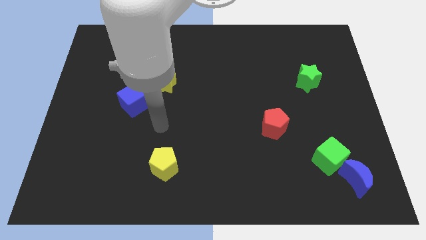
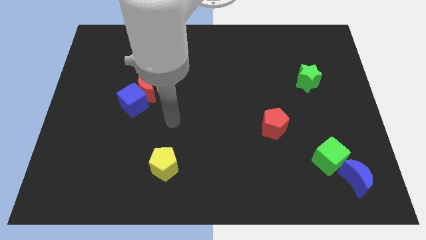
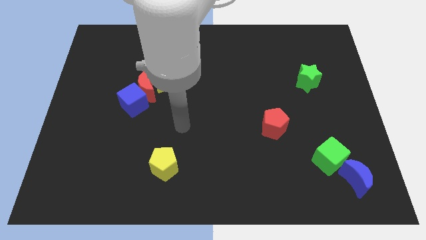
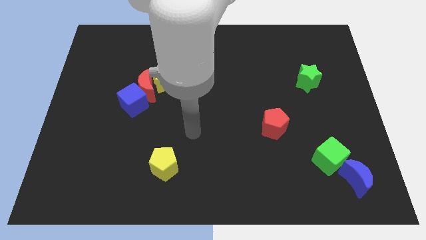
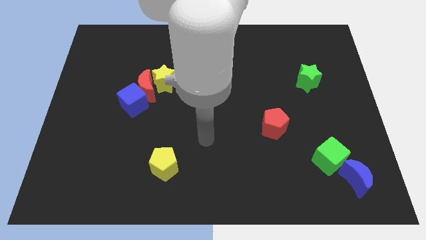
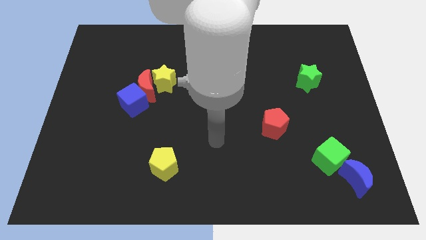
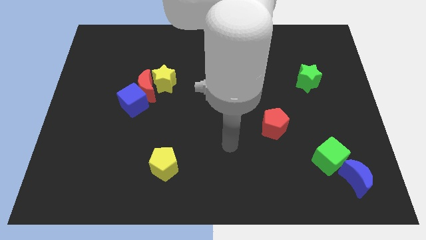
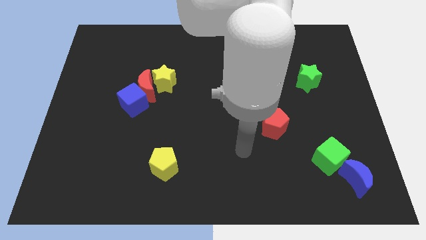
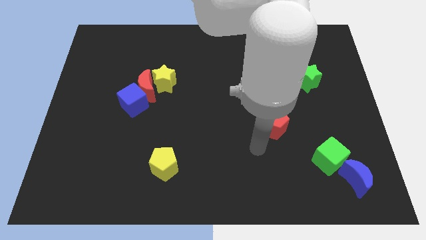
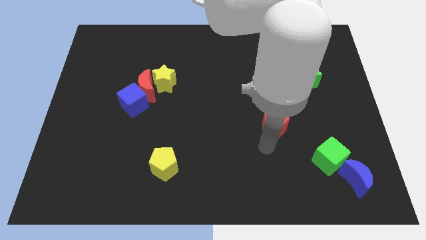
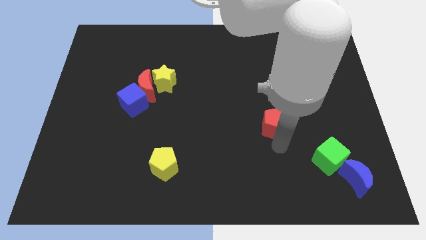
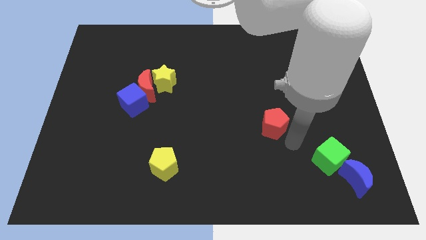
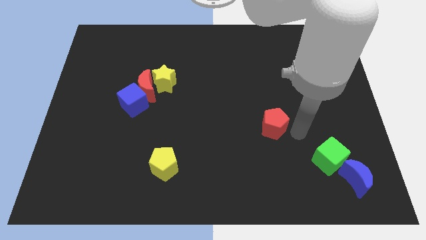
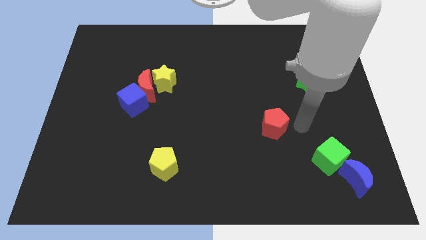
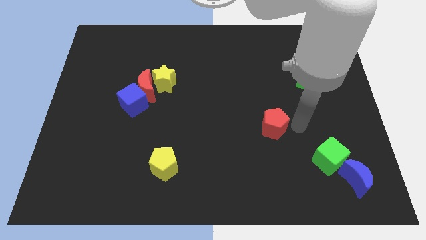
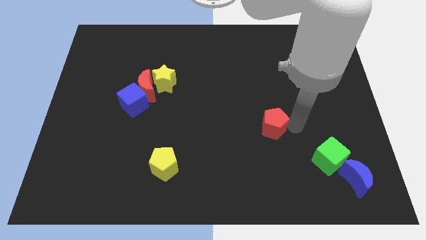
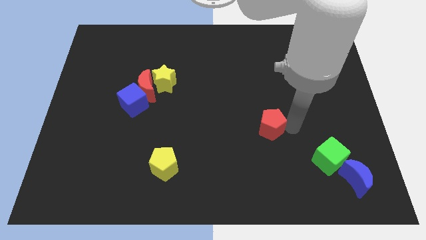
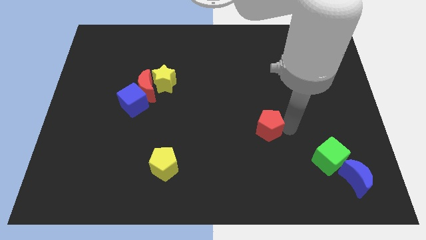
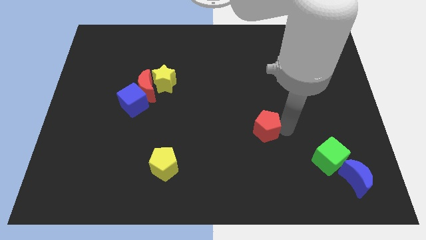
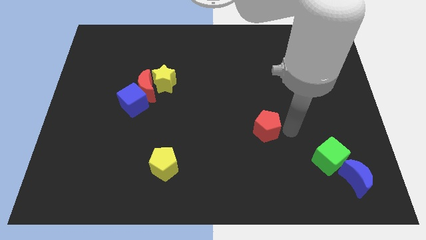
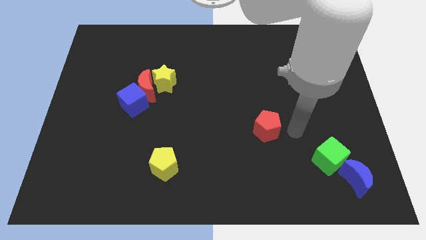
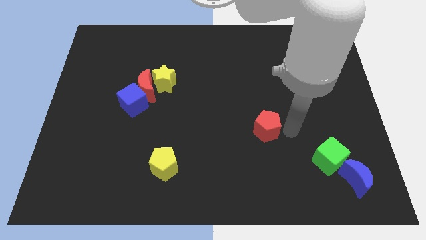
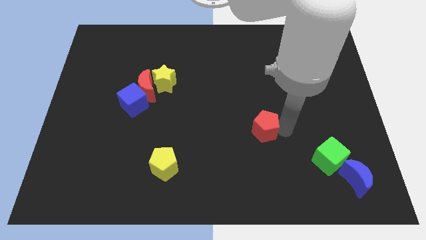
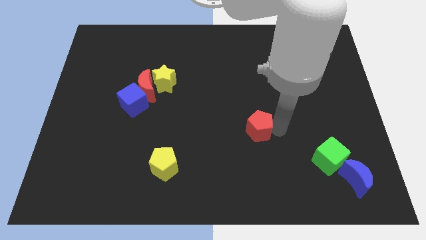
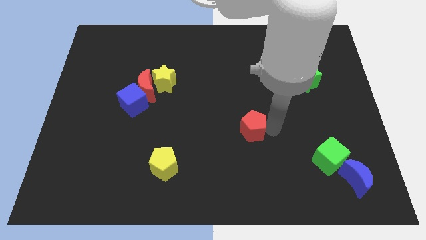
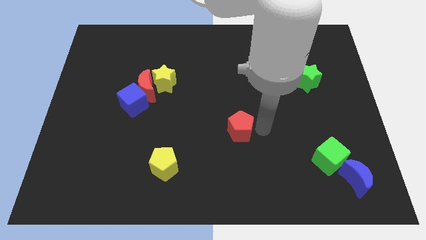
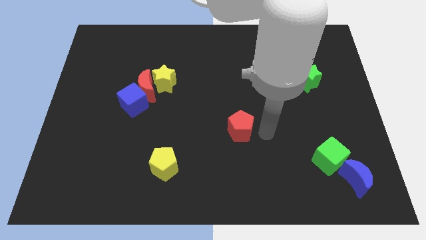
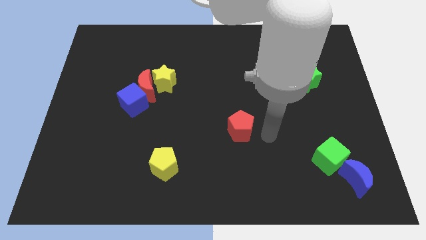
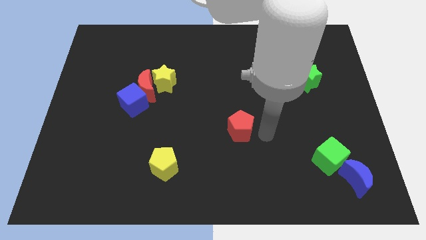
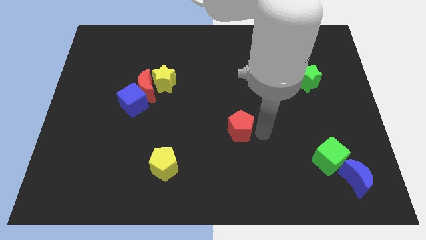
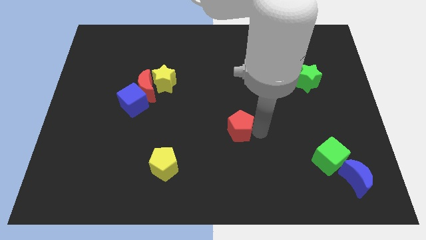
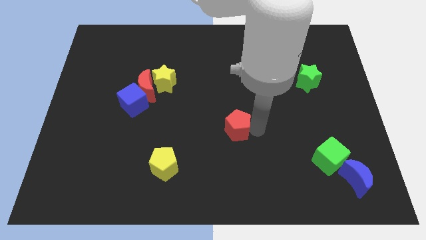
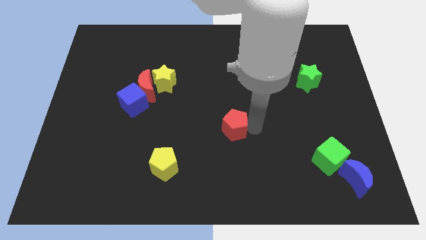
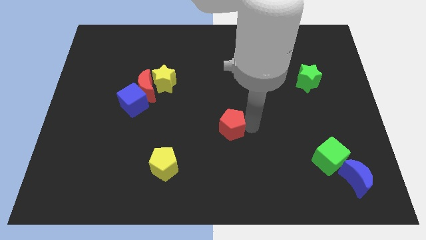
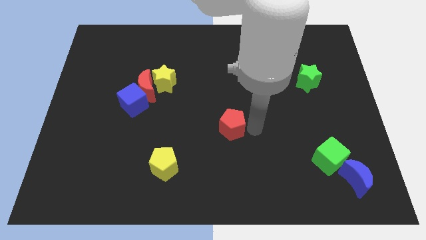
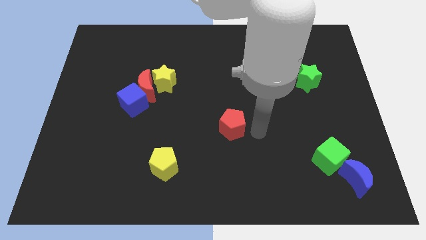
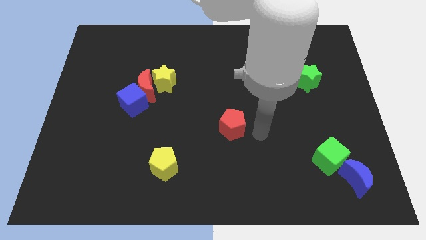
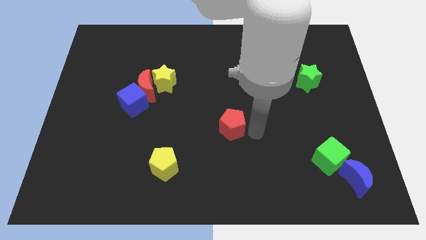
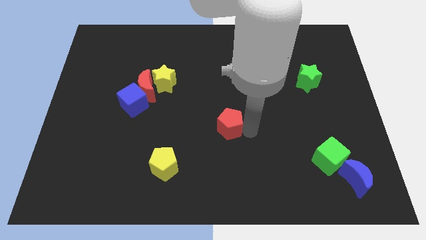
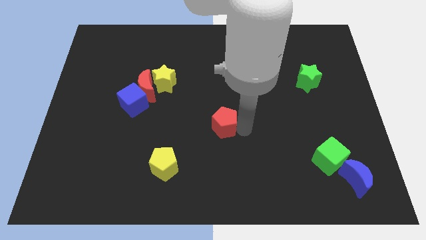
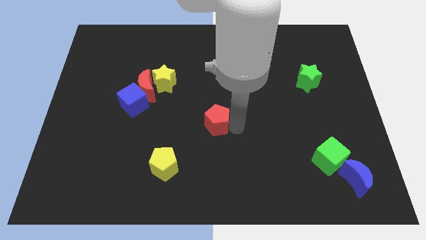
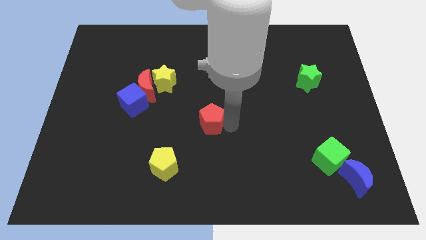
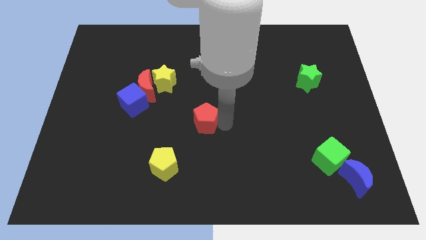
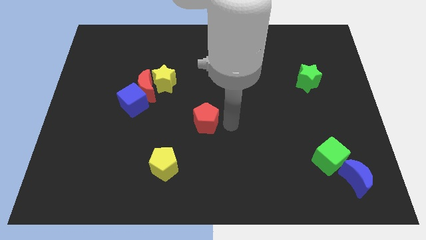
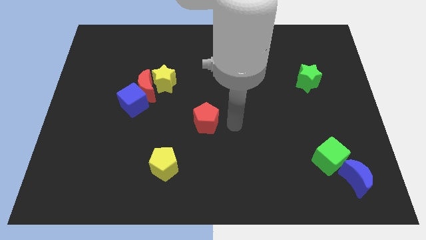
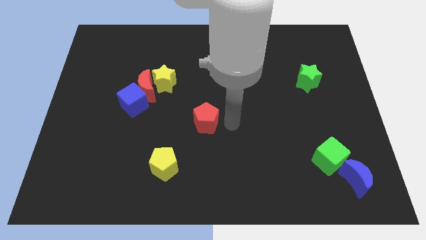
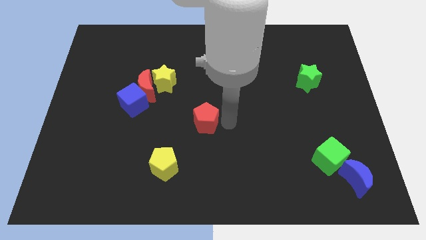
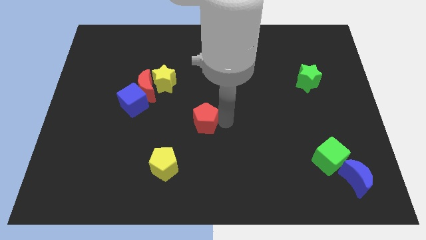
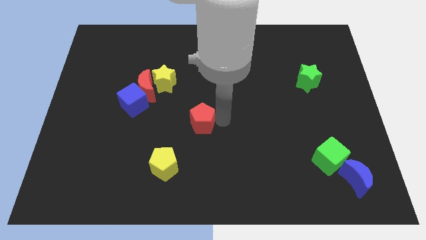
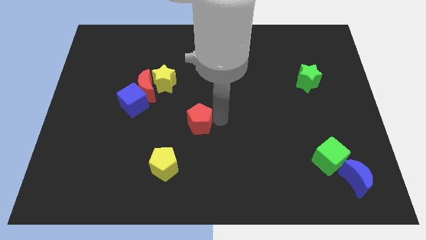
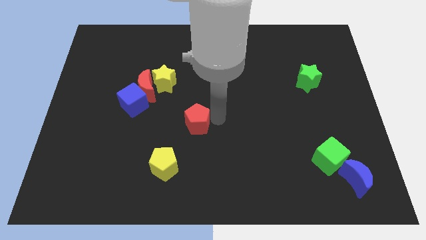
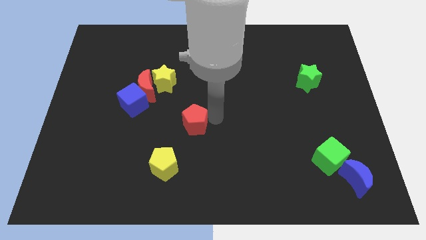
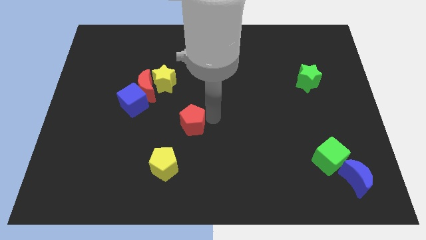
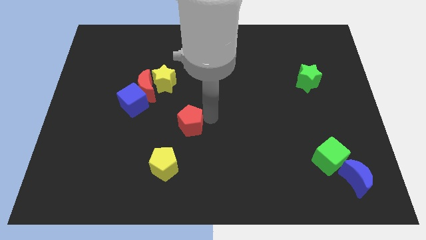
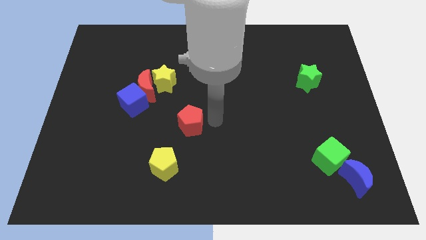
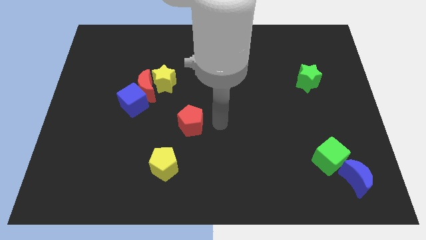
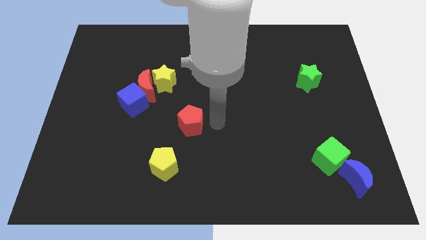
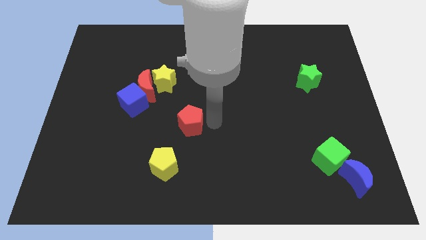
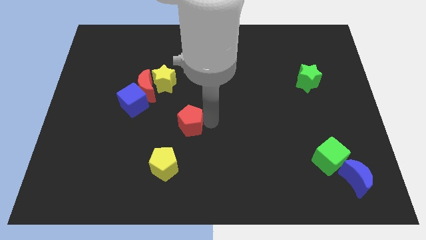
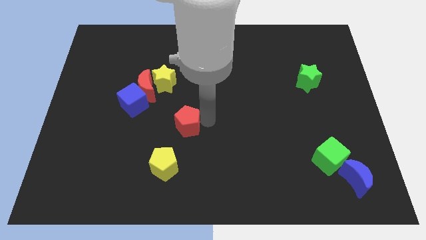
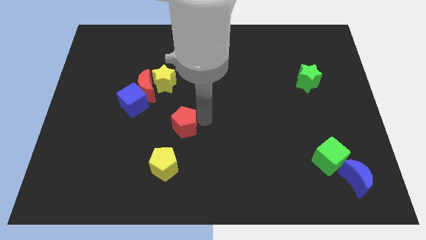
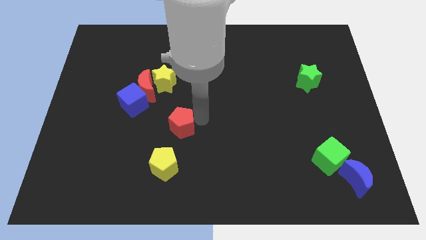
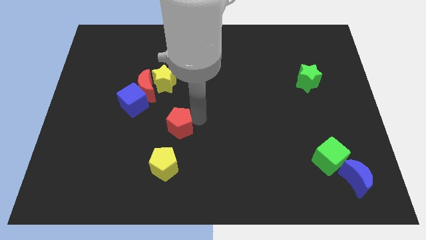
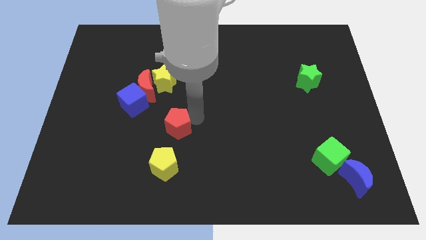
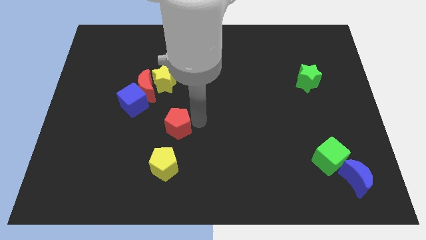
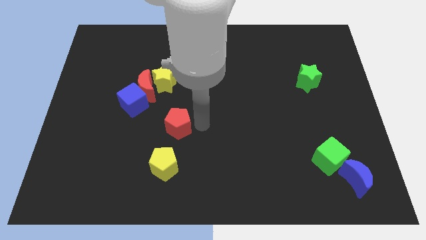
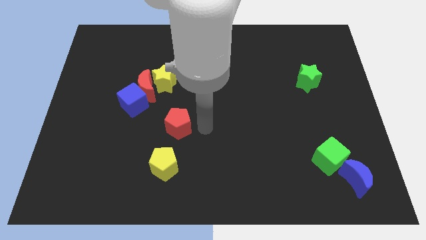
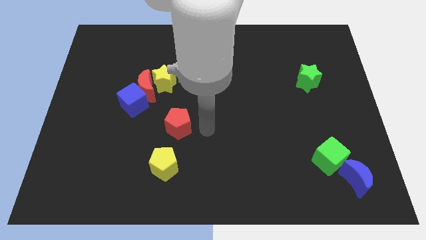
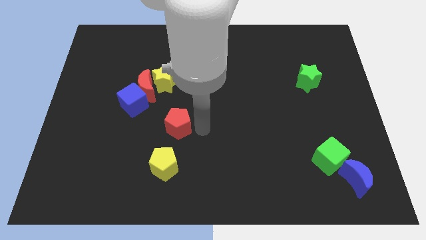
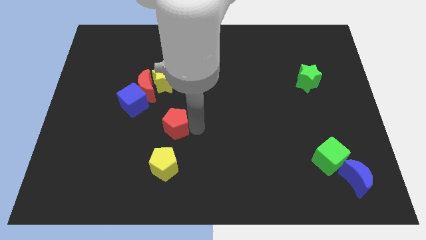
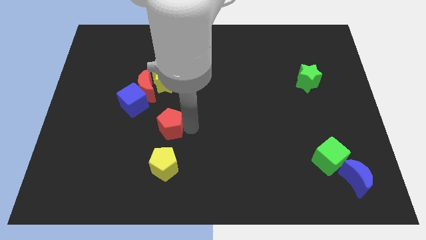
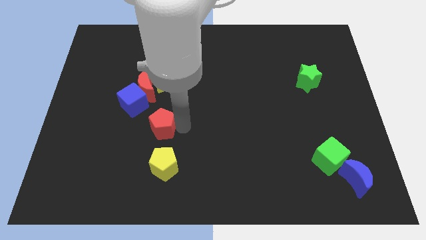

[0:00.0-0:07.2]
move the red pentagon below the red moon

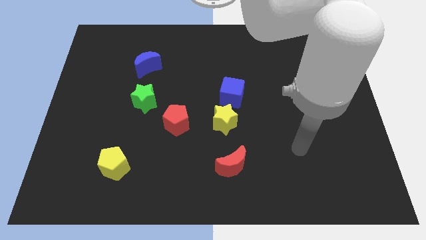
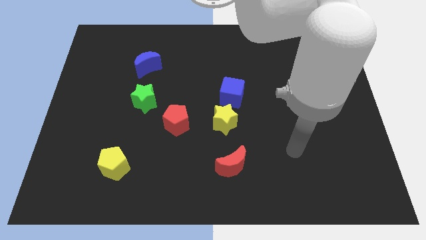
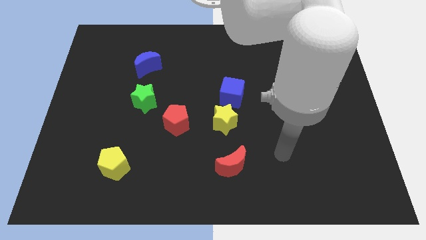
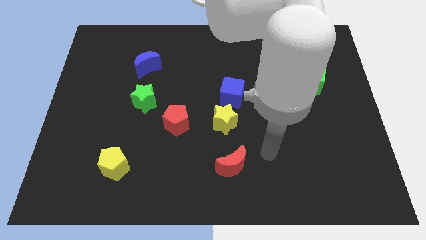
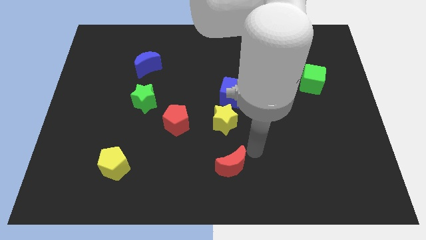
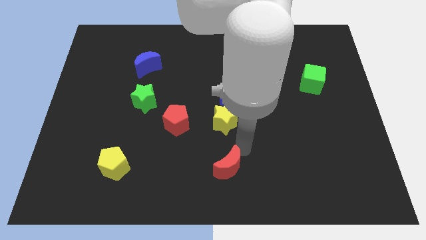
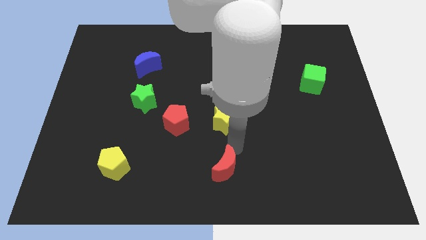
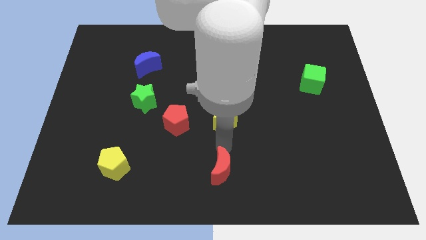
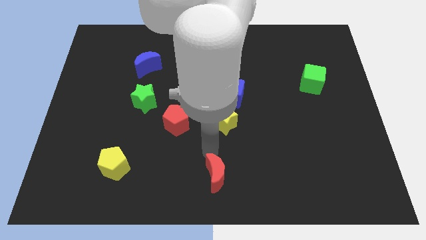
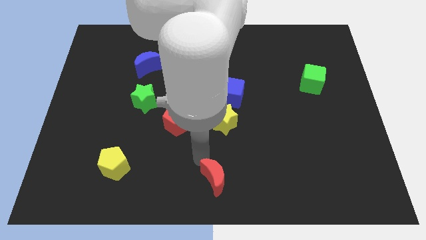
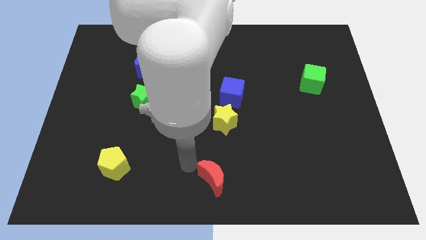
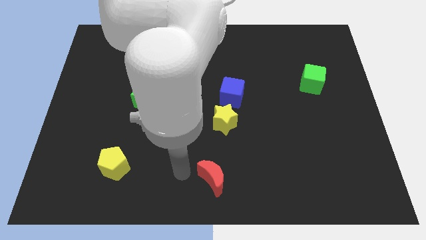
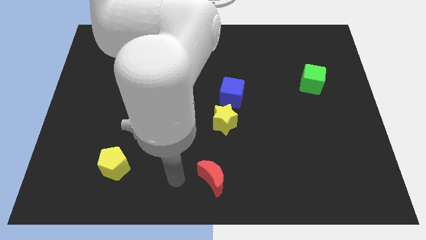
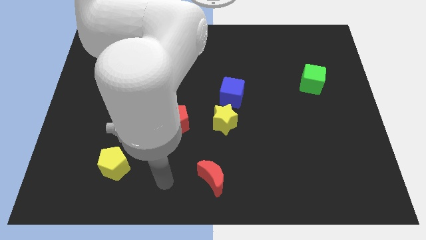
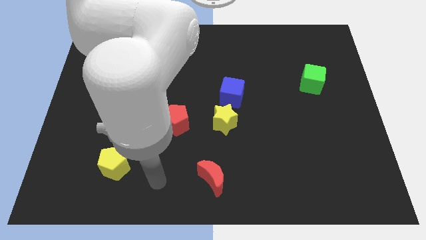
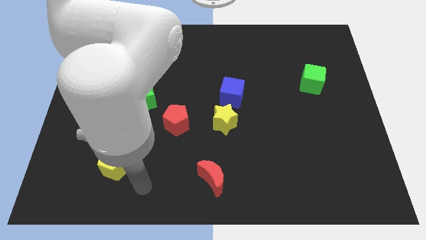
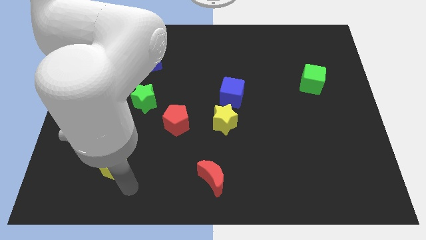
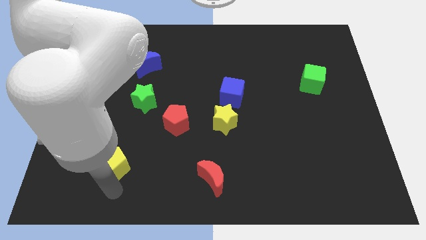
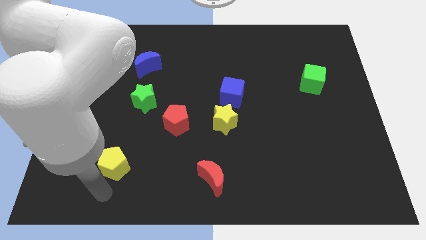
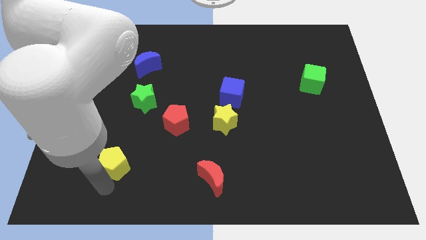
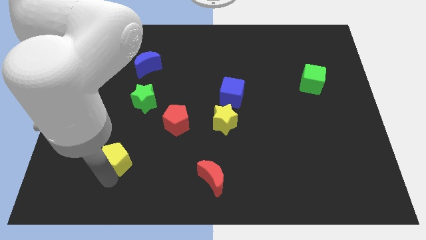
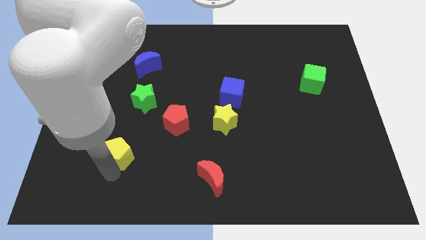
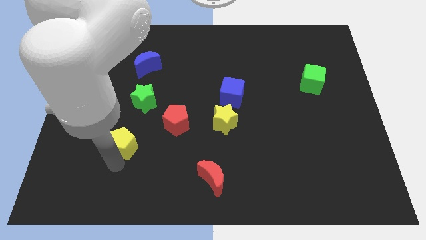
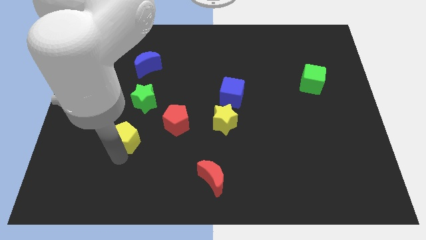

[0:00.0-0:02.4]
slide the yellow pentagon just left of the red pentagon
